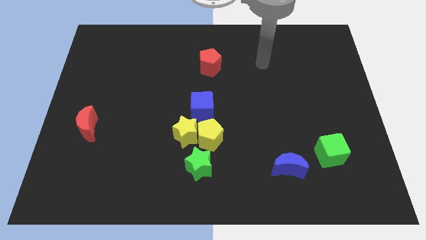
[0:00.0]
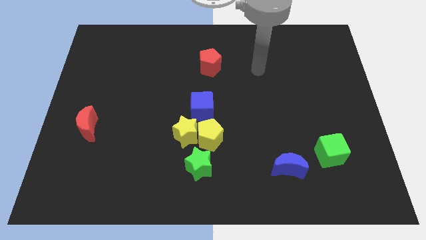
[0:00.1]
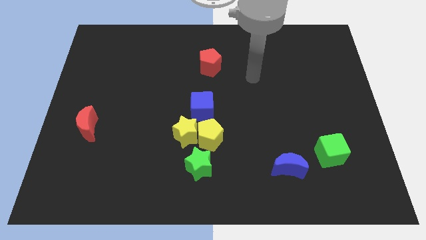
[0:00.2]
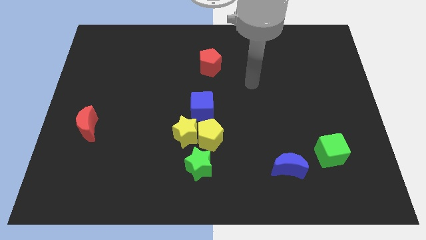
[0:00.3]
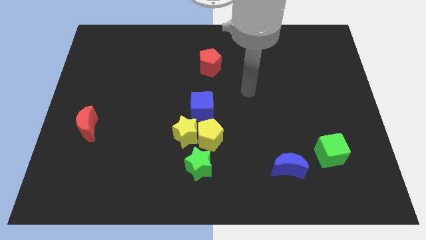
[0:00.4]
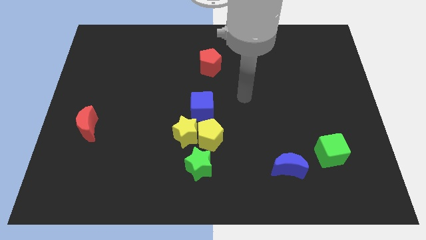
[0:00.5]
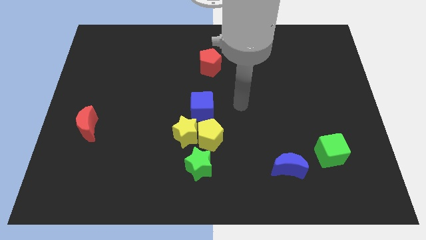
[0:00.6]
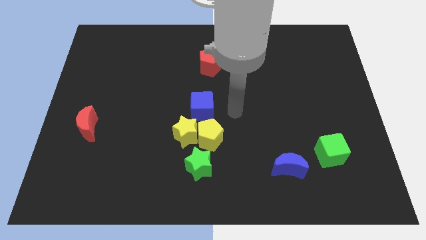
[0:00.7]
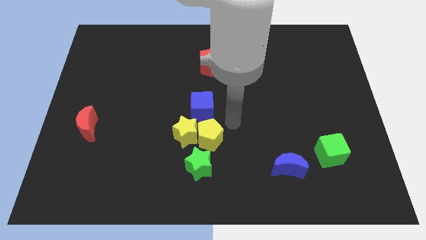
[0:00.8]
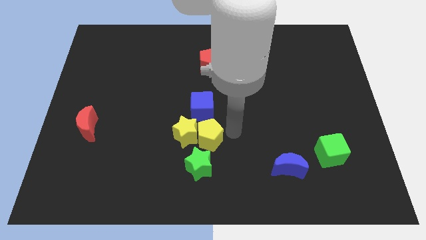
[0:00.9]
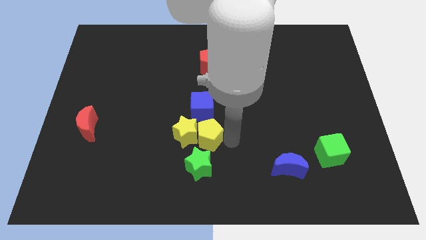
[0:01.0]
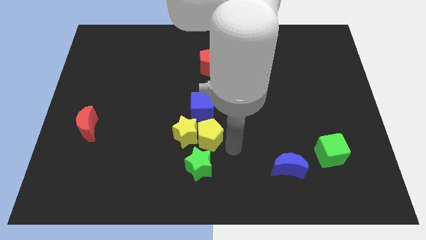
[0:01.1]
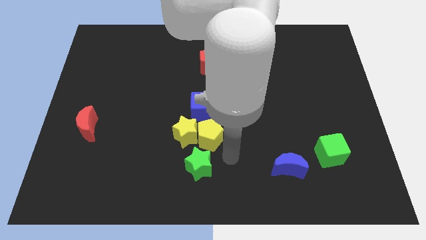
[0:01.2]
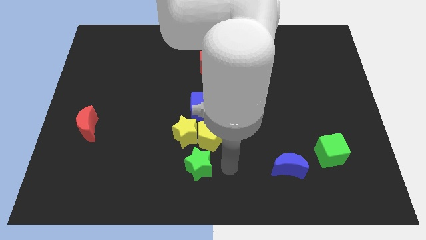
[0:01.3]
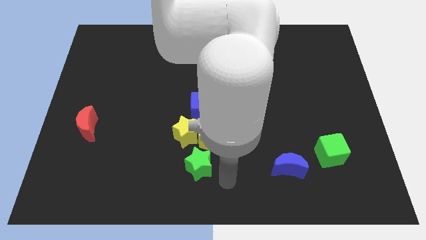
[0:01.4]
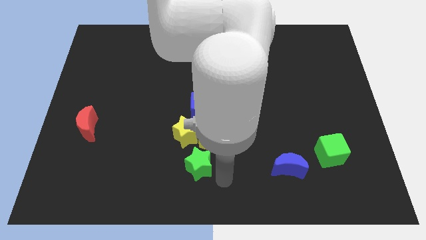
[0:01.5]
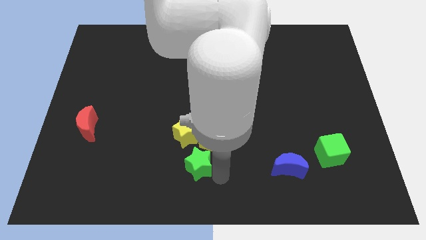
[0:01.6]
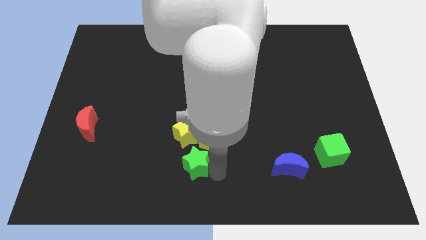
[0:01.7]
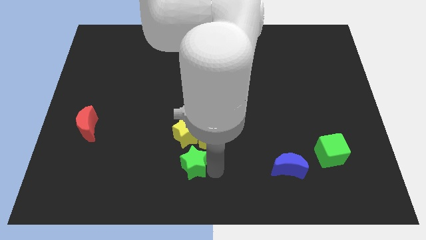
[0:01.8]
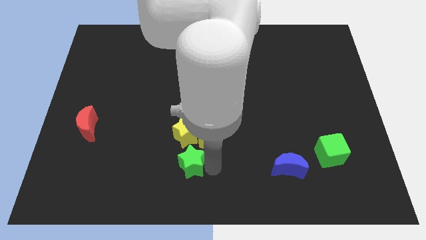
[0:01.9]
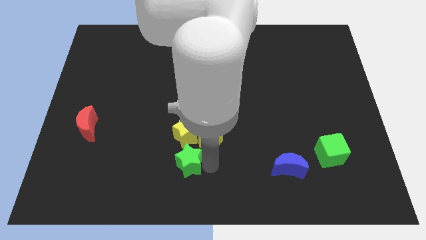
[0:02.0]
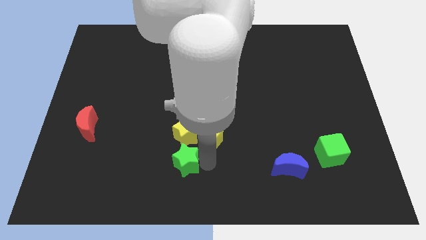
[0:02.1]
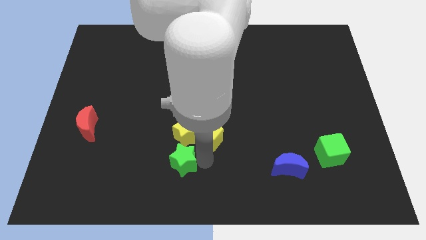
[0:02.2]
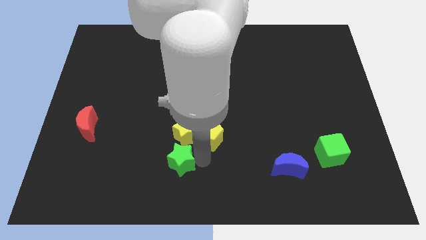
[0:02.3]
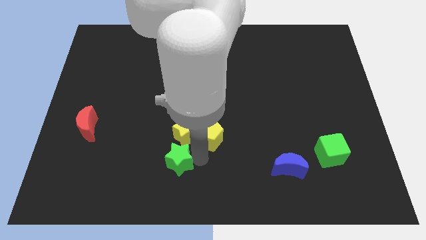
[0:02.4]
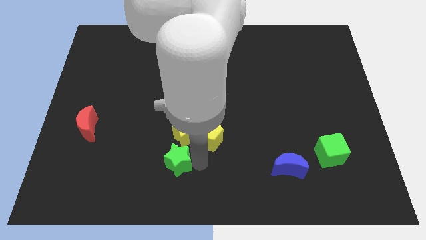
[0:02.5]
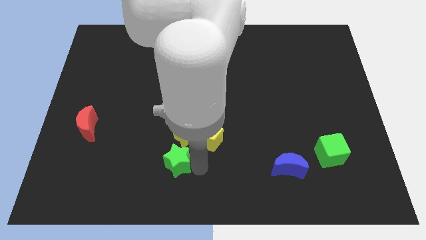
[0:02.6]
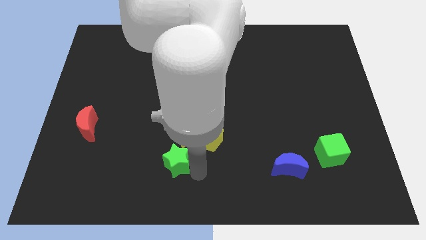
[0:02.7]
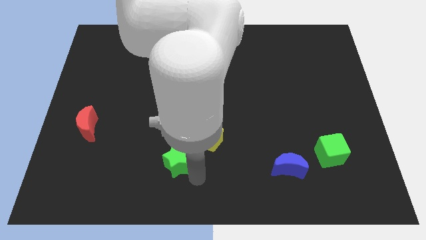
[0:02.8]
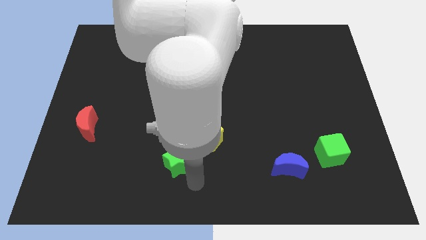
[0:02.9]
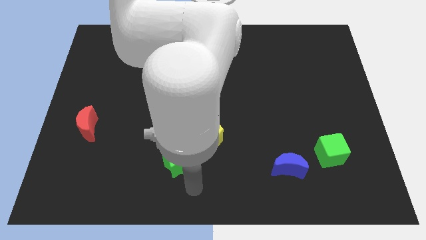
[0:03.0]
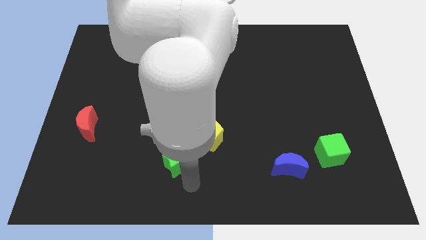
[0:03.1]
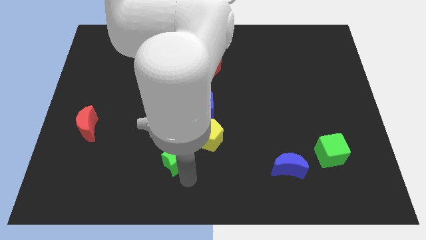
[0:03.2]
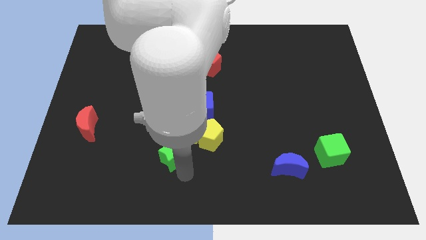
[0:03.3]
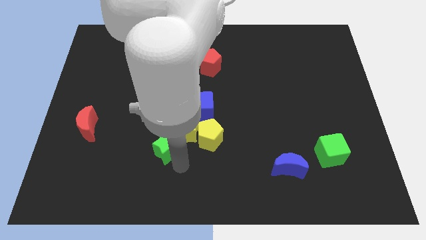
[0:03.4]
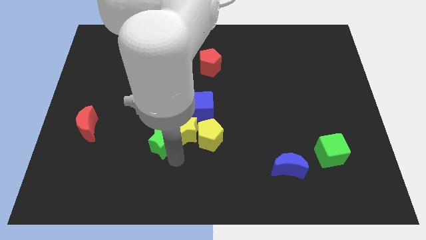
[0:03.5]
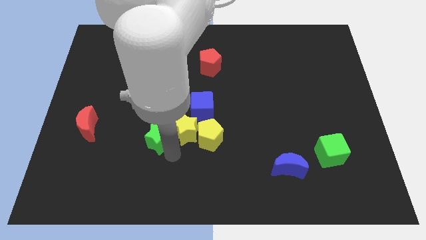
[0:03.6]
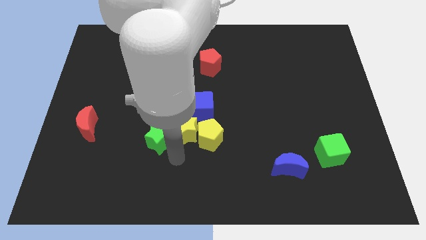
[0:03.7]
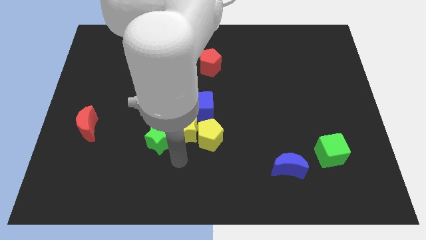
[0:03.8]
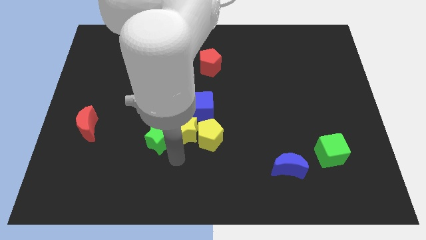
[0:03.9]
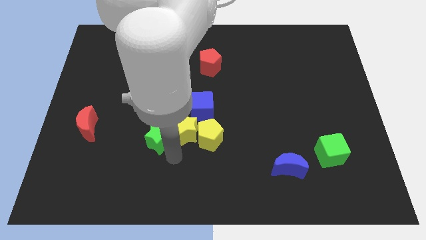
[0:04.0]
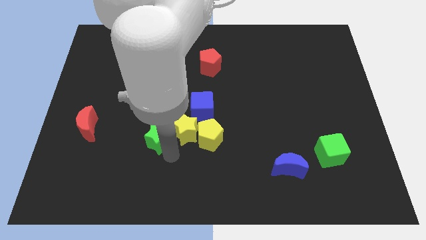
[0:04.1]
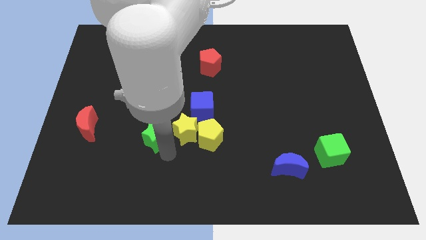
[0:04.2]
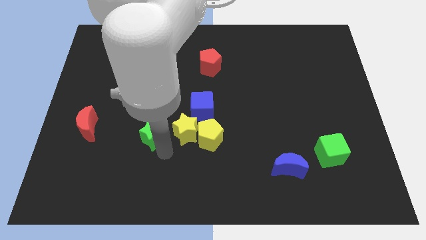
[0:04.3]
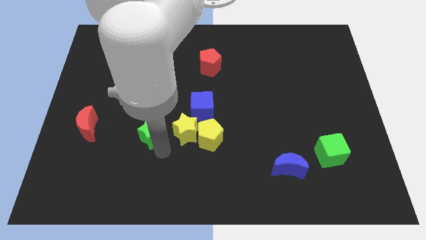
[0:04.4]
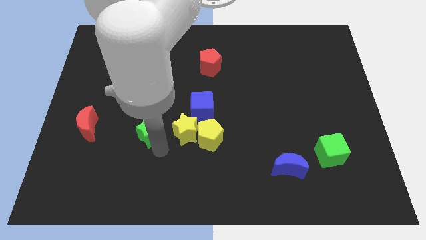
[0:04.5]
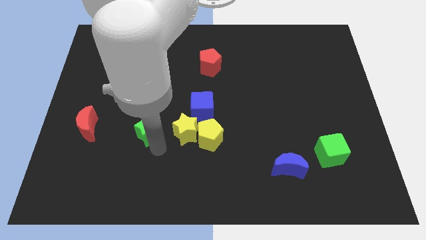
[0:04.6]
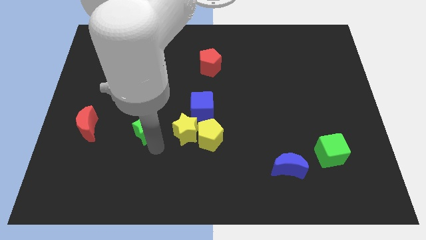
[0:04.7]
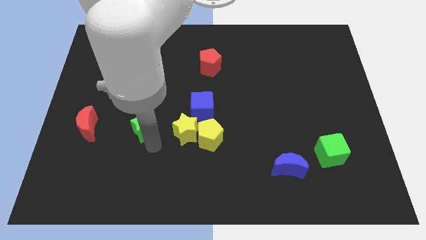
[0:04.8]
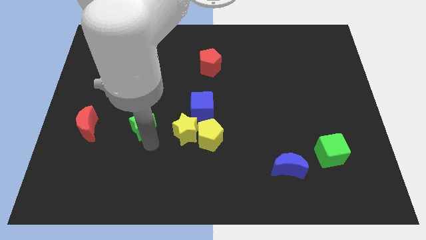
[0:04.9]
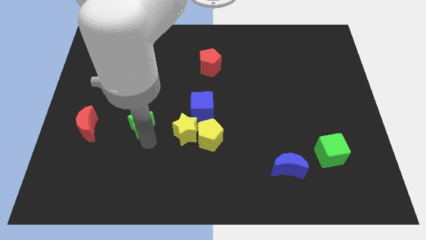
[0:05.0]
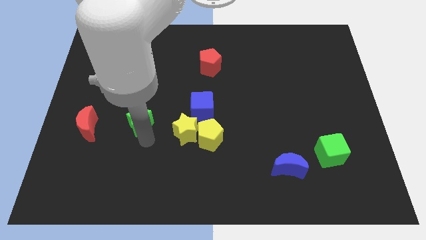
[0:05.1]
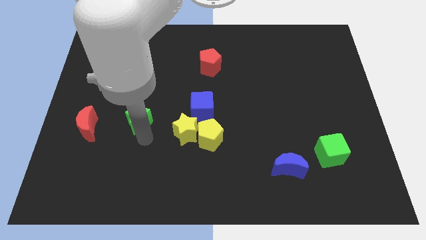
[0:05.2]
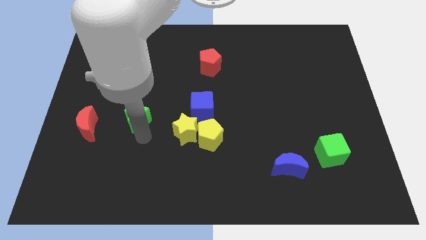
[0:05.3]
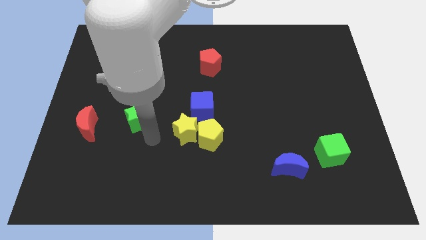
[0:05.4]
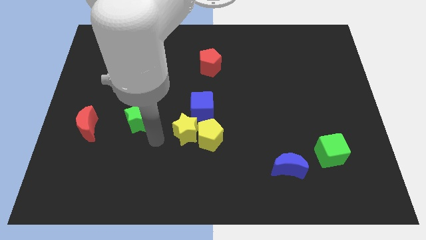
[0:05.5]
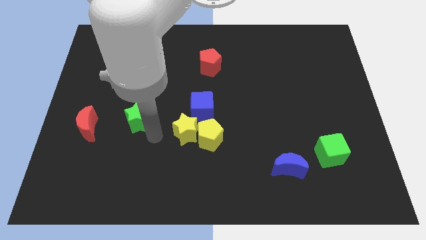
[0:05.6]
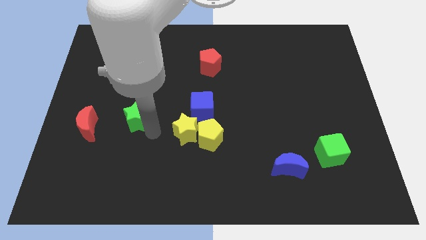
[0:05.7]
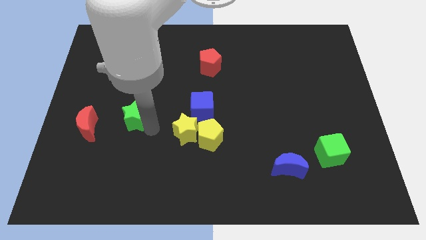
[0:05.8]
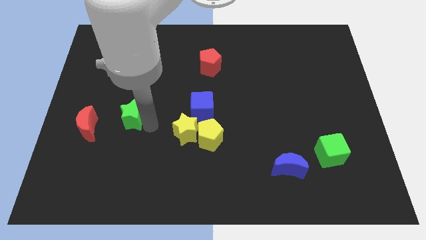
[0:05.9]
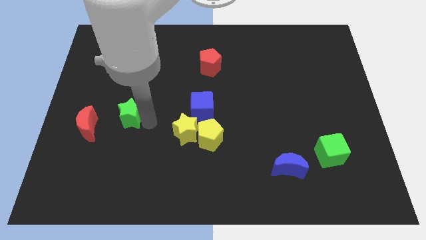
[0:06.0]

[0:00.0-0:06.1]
move the green star up and to the left

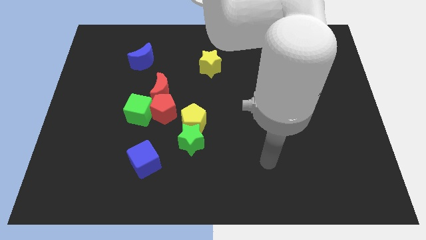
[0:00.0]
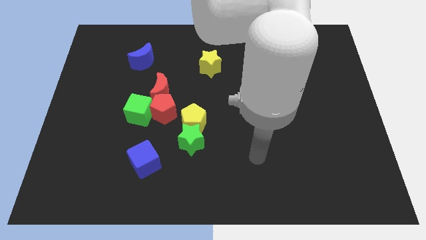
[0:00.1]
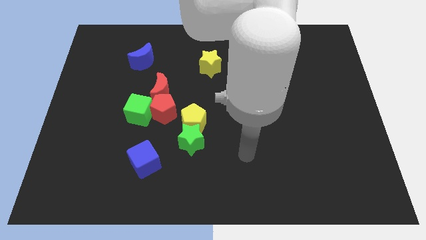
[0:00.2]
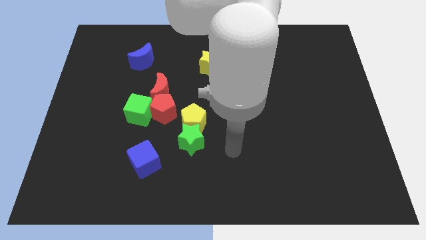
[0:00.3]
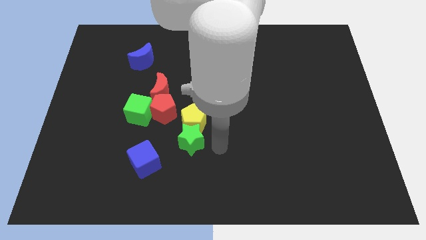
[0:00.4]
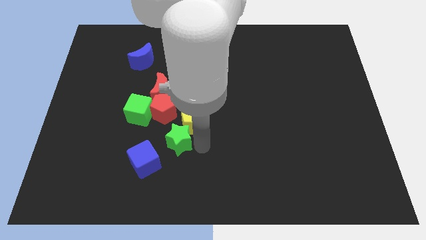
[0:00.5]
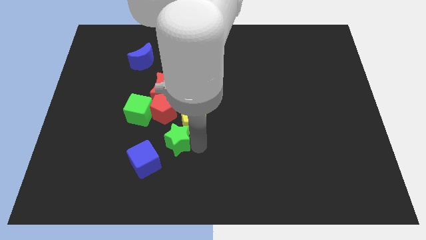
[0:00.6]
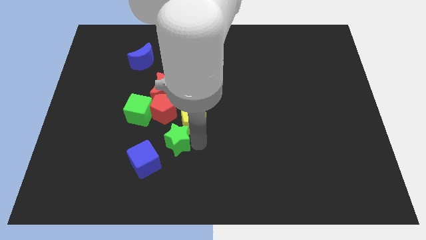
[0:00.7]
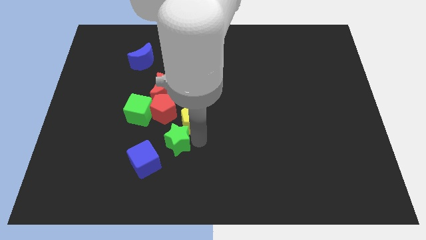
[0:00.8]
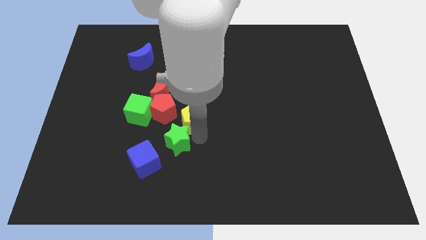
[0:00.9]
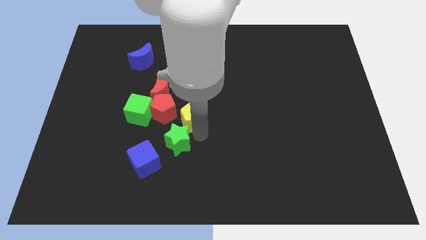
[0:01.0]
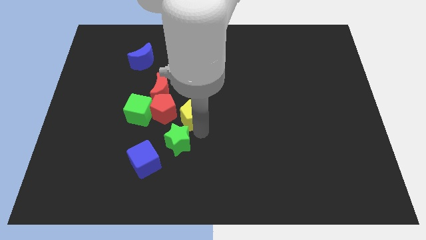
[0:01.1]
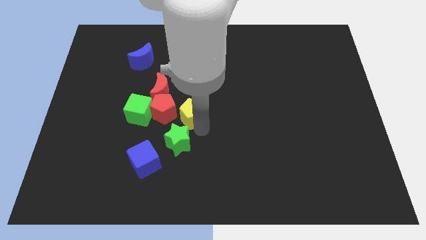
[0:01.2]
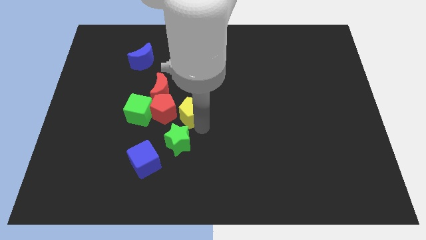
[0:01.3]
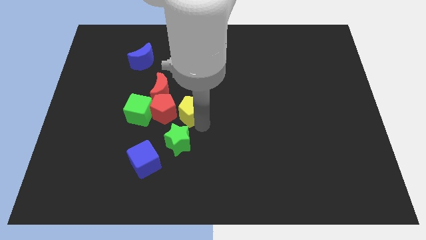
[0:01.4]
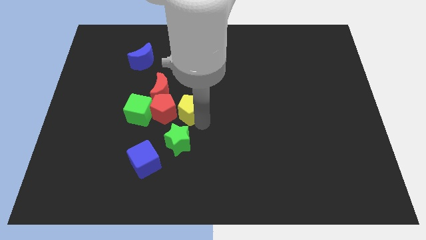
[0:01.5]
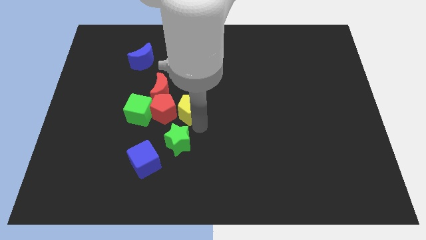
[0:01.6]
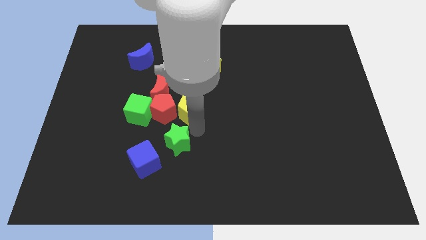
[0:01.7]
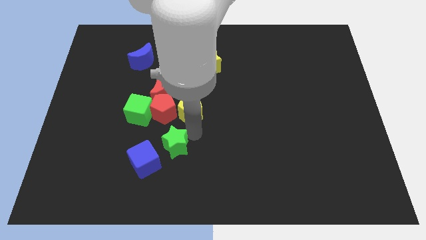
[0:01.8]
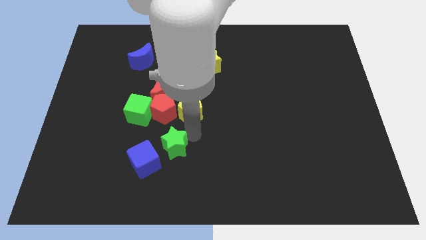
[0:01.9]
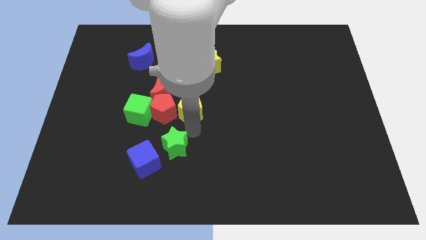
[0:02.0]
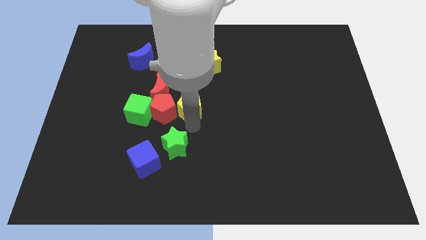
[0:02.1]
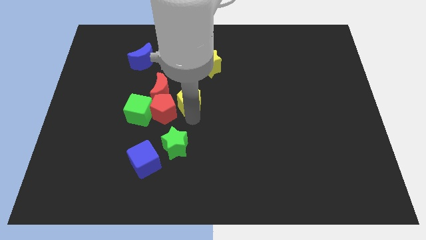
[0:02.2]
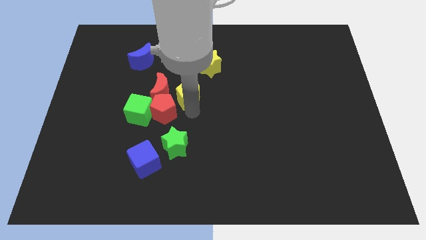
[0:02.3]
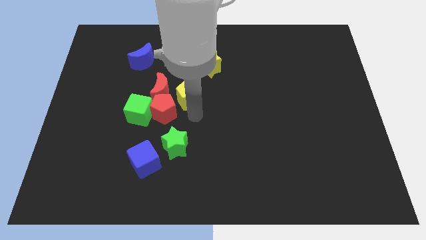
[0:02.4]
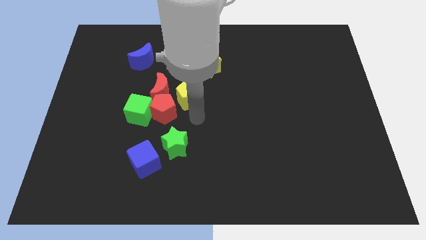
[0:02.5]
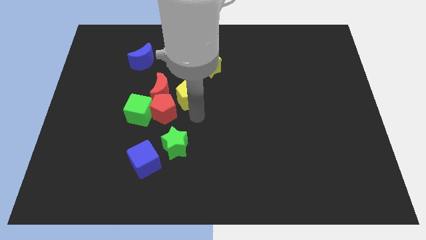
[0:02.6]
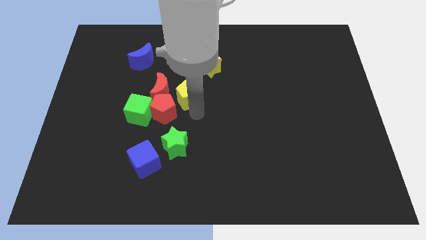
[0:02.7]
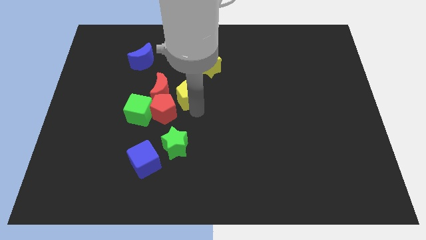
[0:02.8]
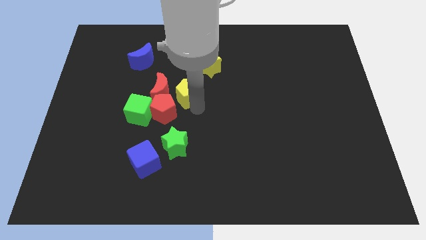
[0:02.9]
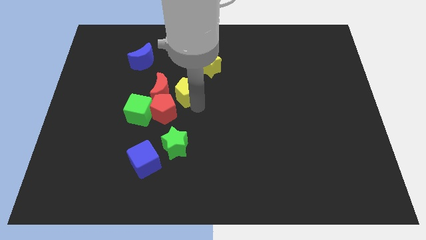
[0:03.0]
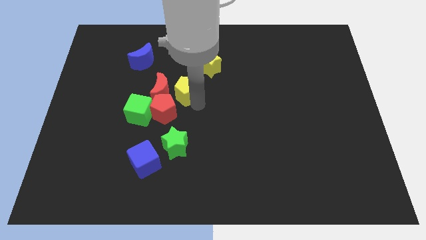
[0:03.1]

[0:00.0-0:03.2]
move the yellow pentagon a little up and left
